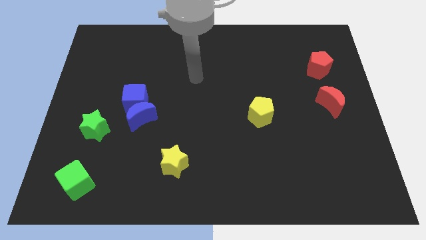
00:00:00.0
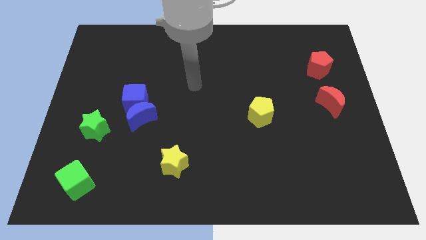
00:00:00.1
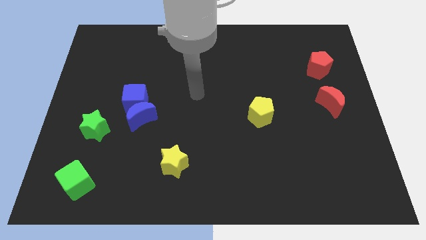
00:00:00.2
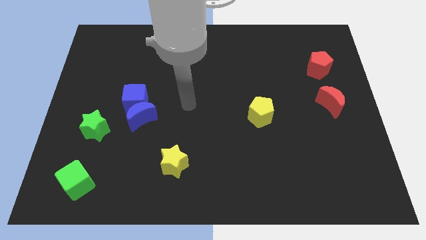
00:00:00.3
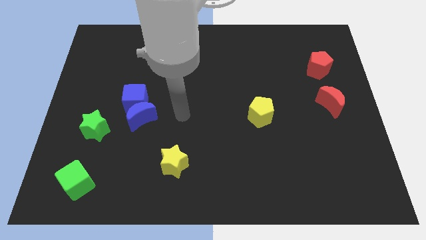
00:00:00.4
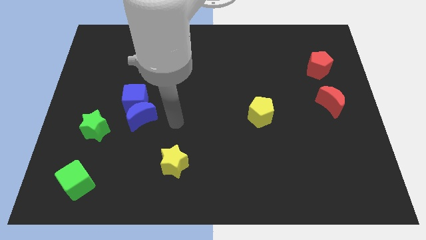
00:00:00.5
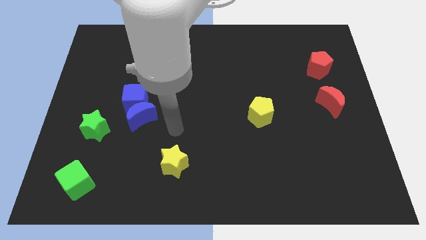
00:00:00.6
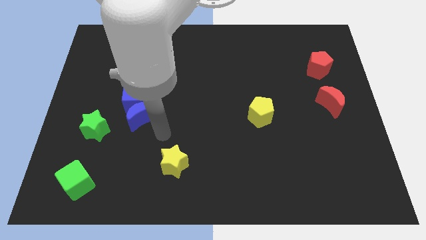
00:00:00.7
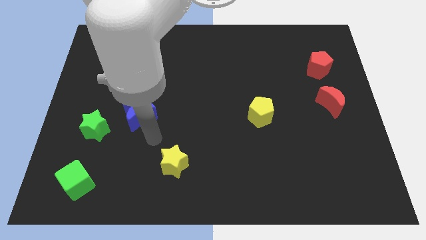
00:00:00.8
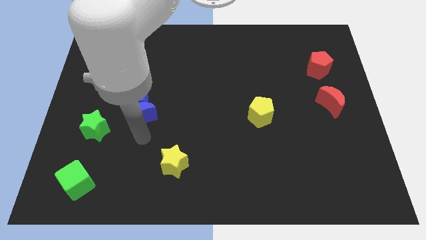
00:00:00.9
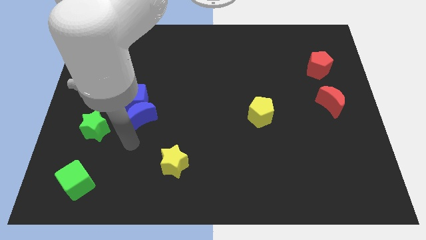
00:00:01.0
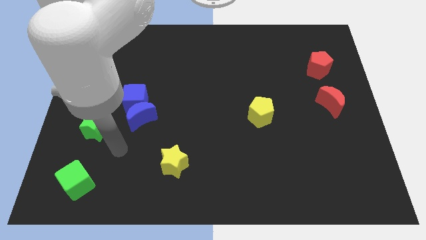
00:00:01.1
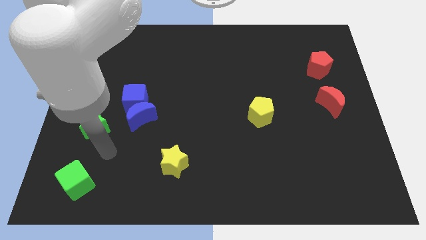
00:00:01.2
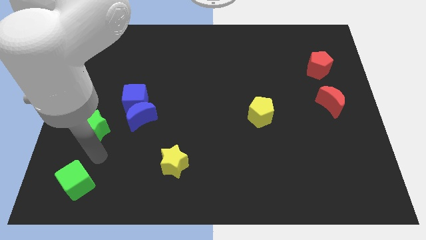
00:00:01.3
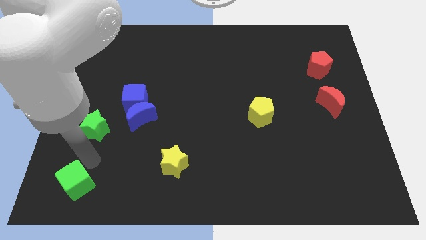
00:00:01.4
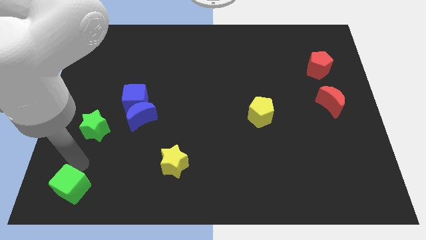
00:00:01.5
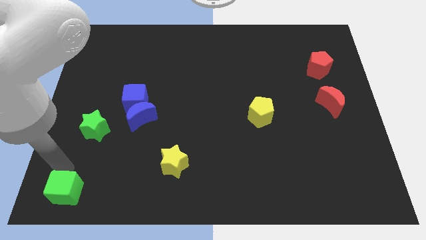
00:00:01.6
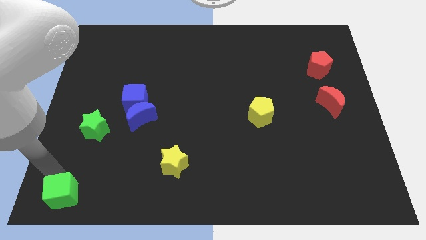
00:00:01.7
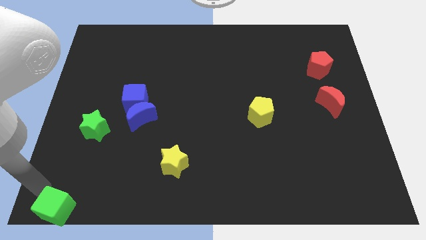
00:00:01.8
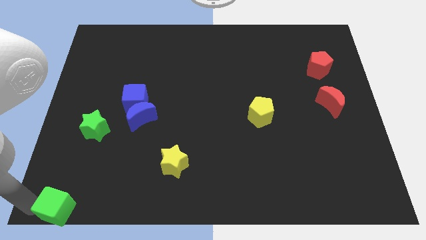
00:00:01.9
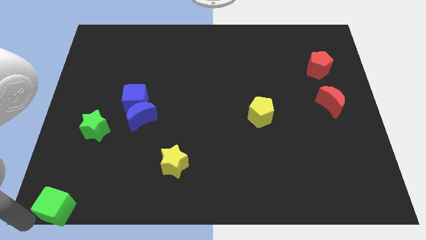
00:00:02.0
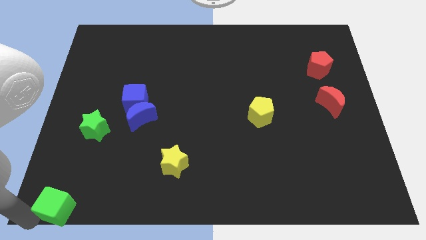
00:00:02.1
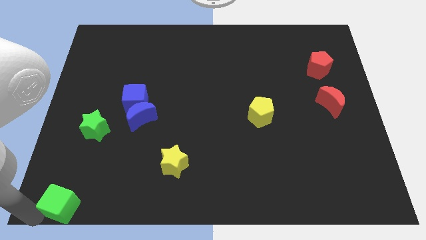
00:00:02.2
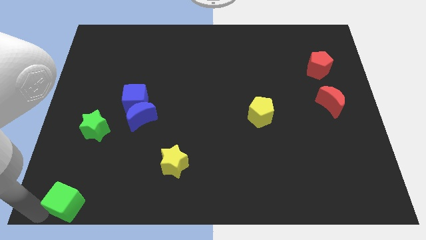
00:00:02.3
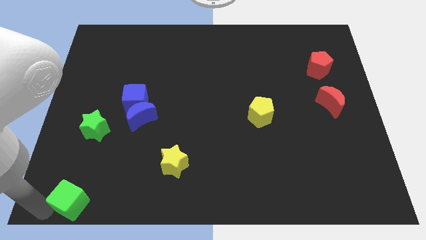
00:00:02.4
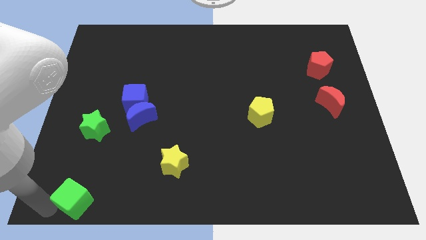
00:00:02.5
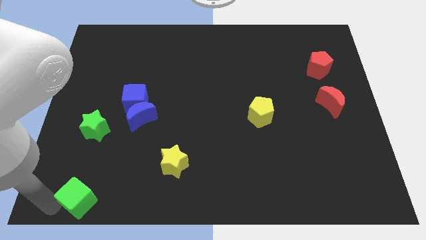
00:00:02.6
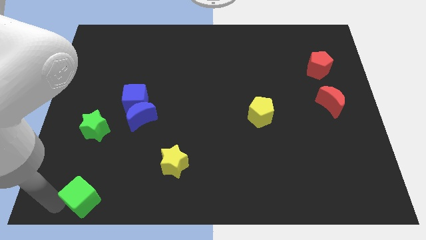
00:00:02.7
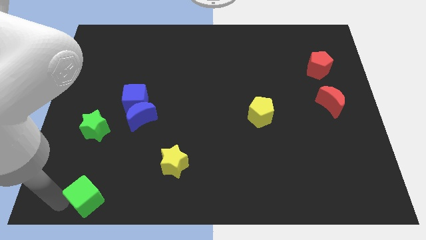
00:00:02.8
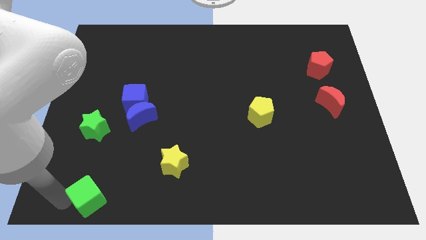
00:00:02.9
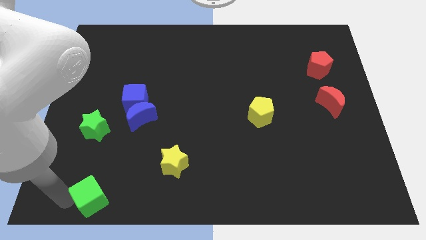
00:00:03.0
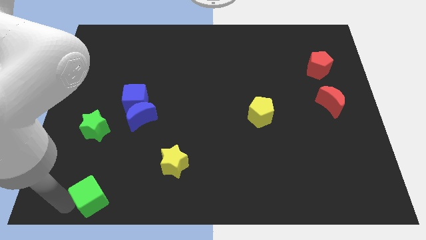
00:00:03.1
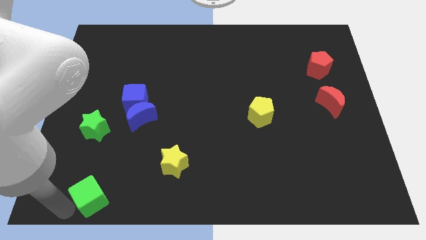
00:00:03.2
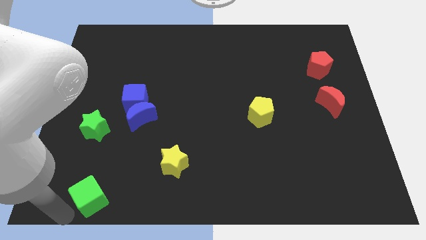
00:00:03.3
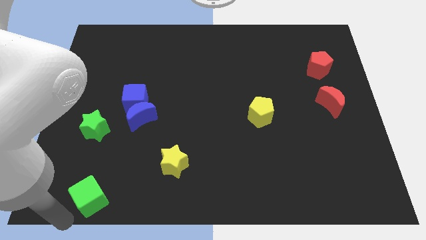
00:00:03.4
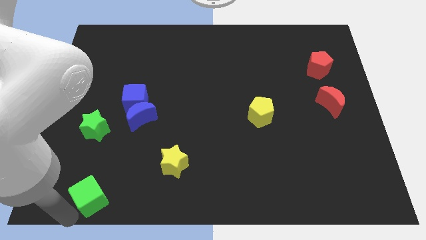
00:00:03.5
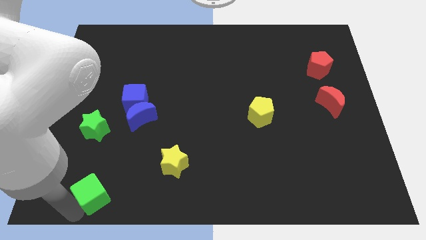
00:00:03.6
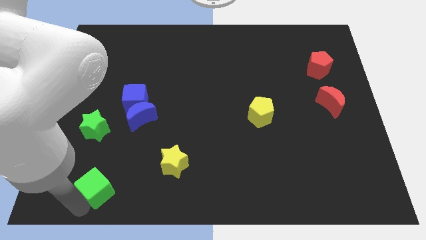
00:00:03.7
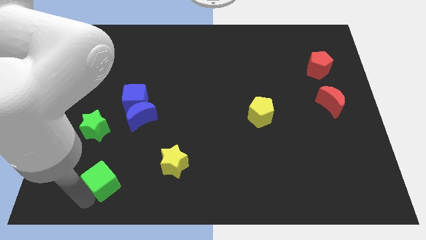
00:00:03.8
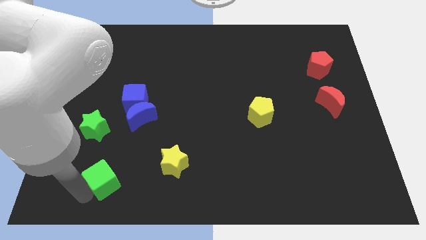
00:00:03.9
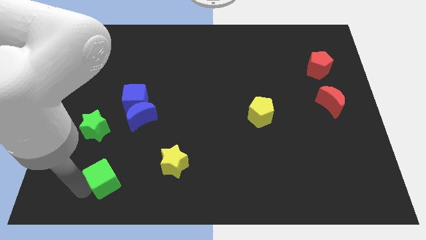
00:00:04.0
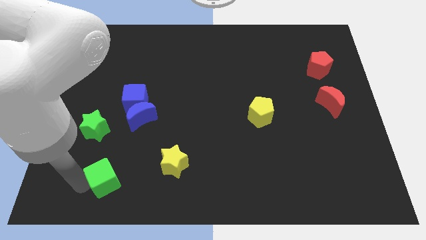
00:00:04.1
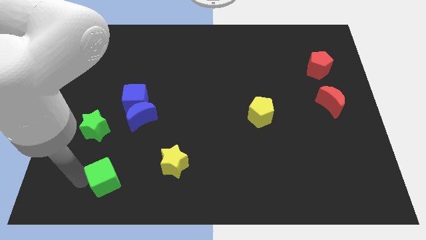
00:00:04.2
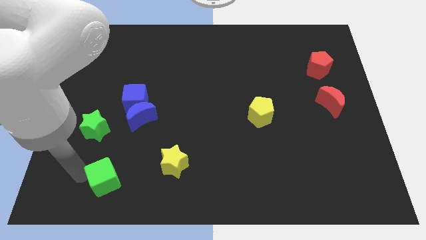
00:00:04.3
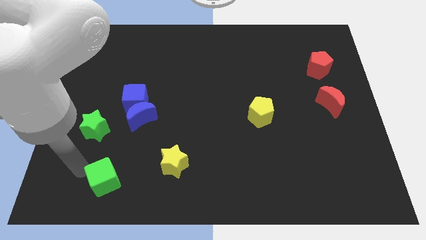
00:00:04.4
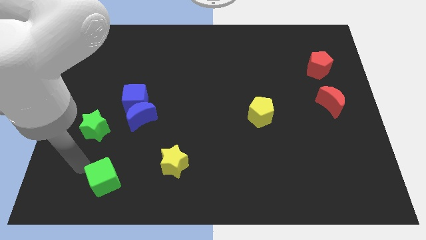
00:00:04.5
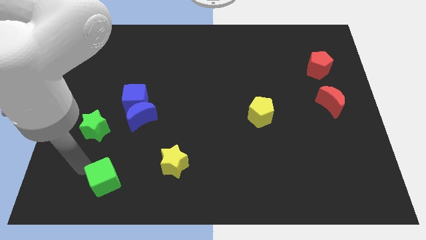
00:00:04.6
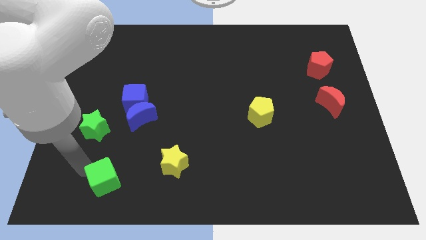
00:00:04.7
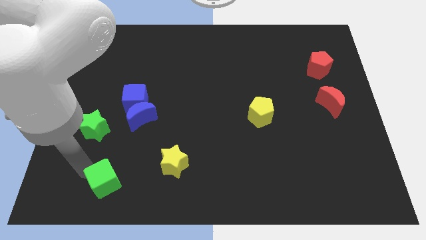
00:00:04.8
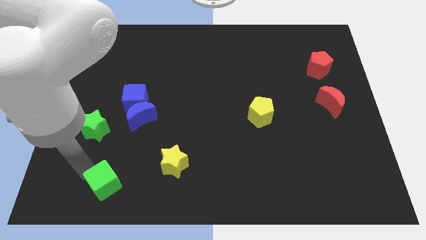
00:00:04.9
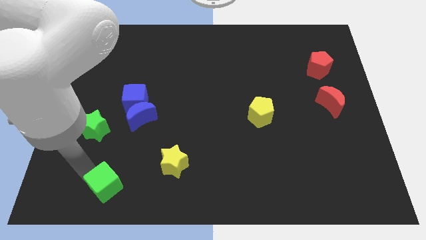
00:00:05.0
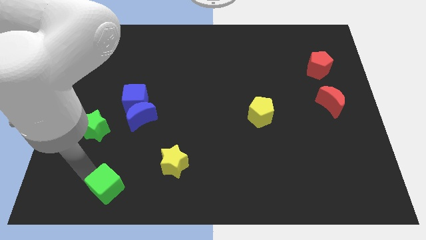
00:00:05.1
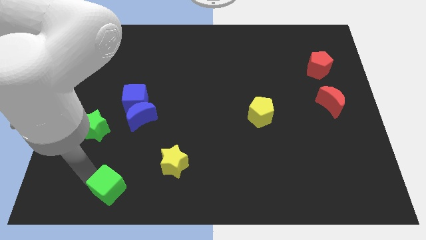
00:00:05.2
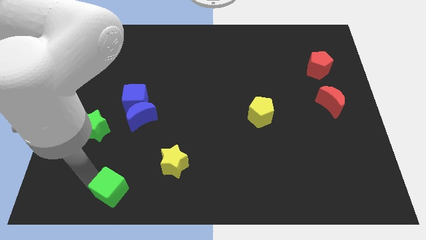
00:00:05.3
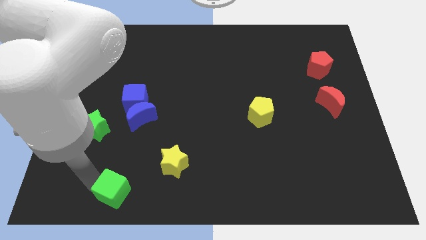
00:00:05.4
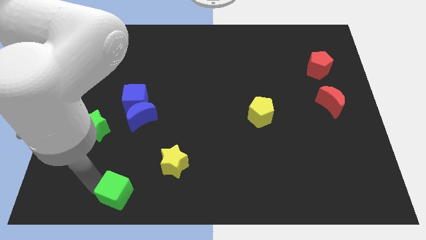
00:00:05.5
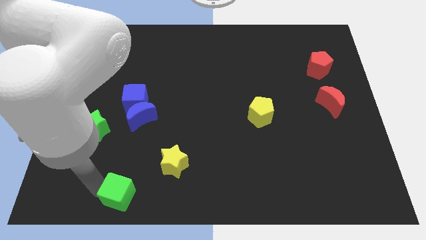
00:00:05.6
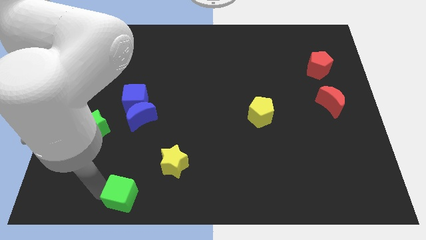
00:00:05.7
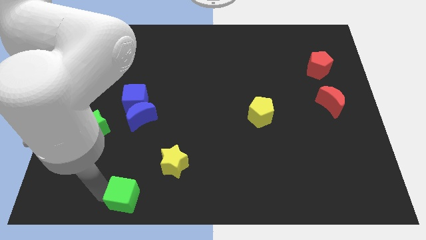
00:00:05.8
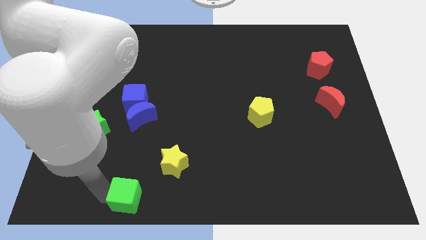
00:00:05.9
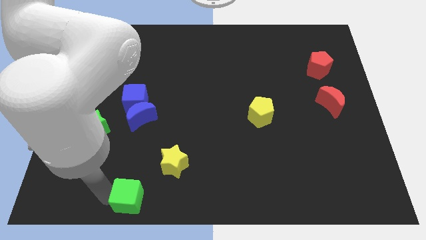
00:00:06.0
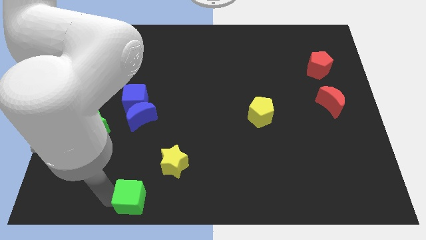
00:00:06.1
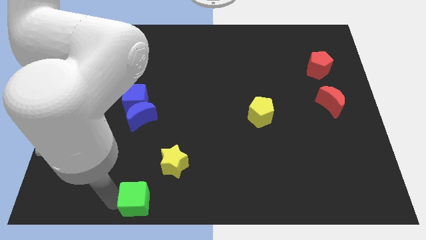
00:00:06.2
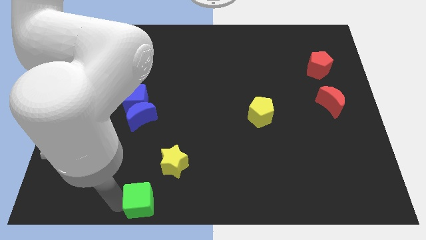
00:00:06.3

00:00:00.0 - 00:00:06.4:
push the green cube to the bottom

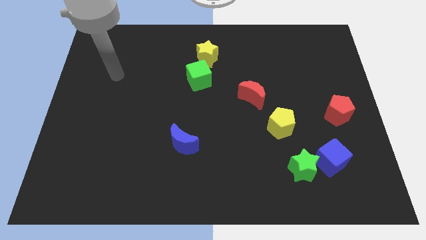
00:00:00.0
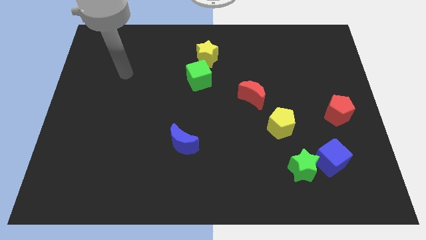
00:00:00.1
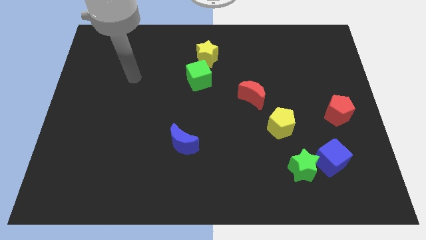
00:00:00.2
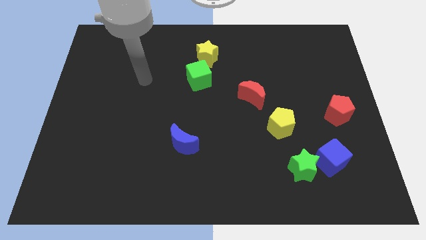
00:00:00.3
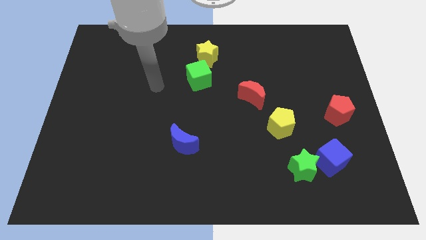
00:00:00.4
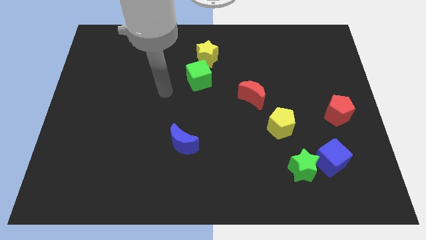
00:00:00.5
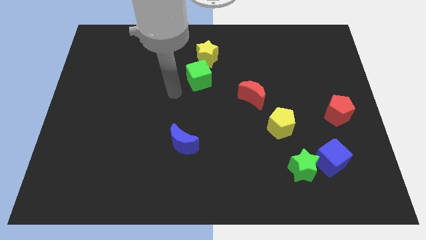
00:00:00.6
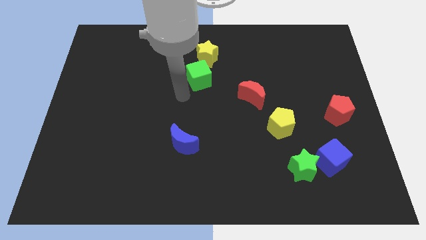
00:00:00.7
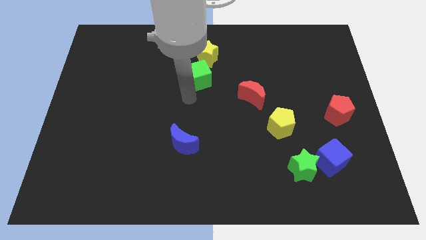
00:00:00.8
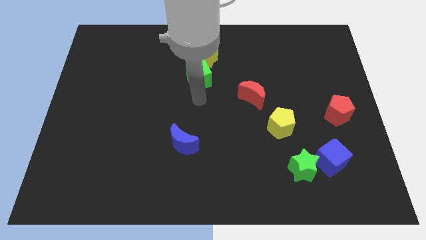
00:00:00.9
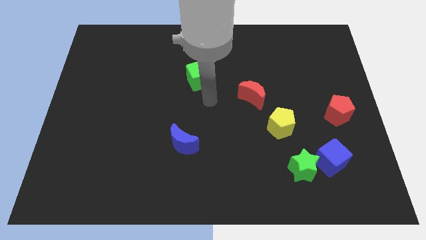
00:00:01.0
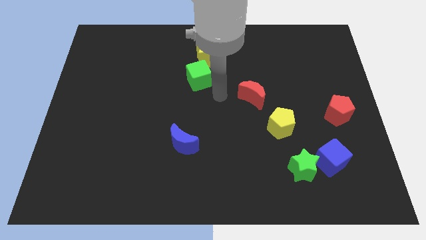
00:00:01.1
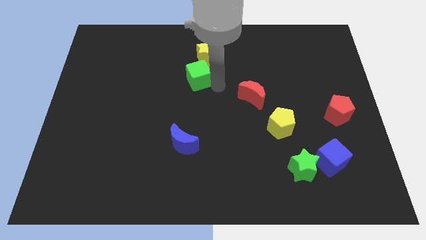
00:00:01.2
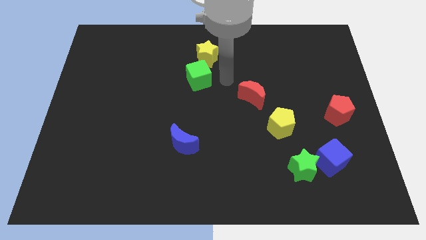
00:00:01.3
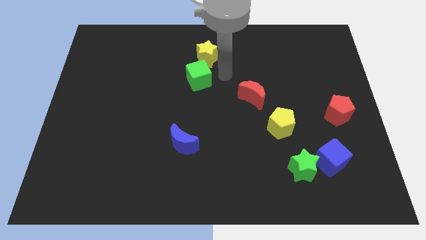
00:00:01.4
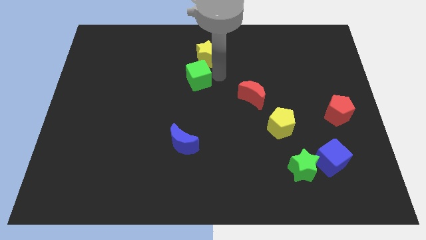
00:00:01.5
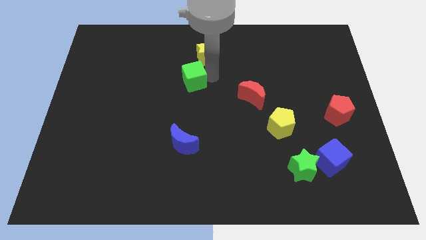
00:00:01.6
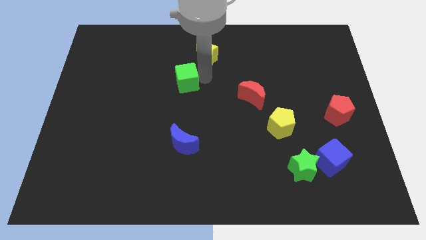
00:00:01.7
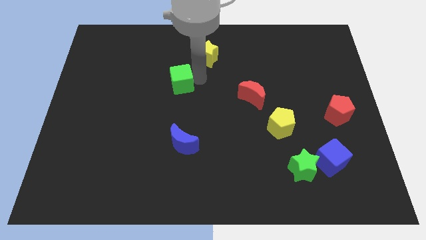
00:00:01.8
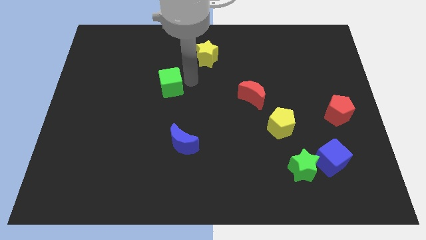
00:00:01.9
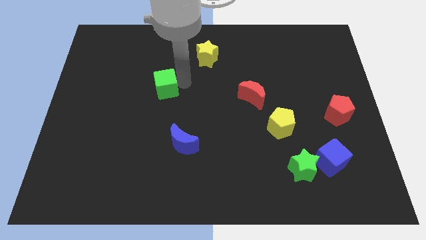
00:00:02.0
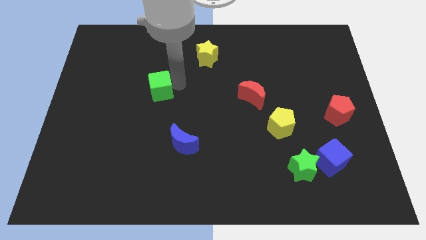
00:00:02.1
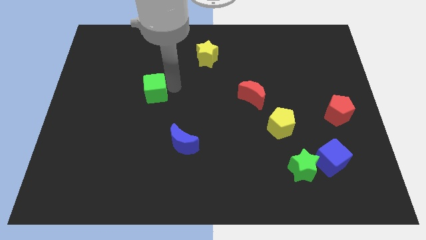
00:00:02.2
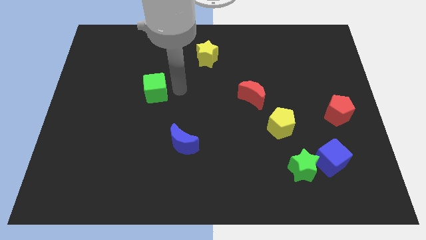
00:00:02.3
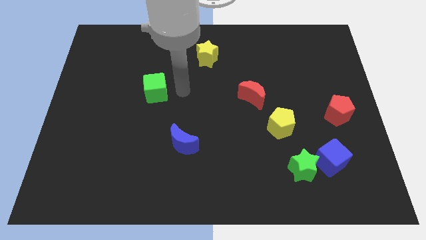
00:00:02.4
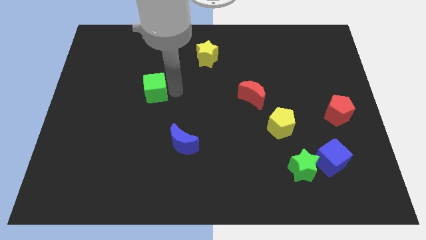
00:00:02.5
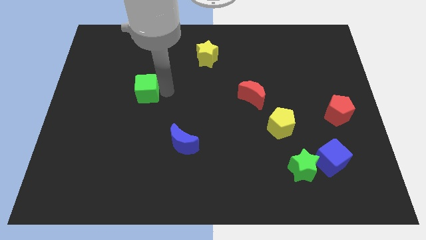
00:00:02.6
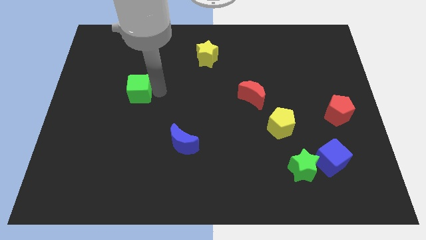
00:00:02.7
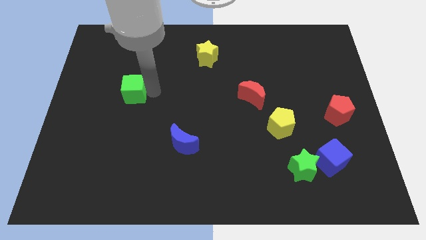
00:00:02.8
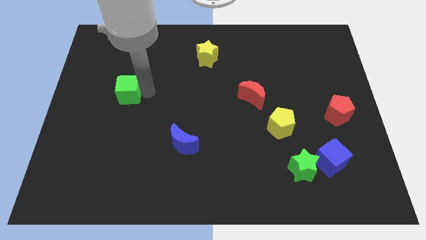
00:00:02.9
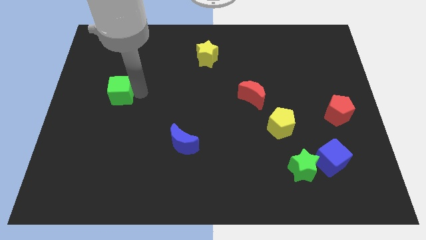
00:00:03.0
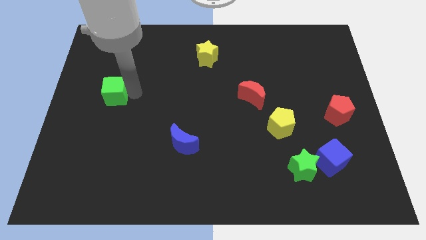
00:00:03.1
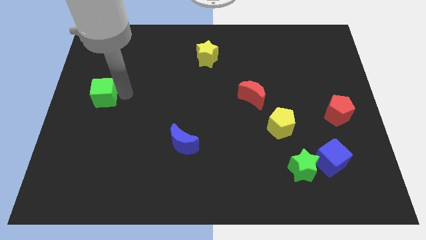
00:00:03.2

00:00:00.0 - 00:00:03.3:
put the green cube to the center left
